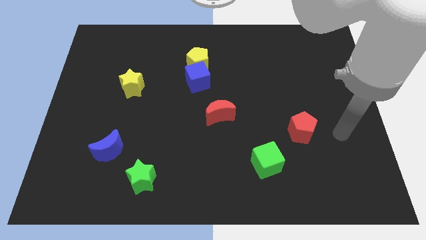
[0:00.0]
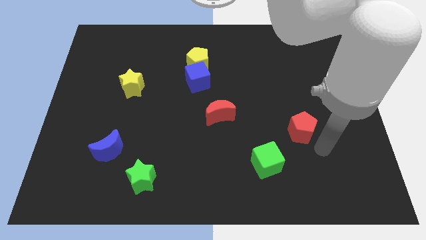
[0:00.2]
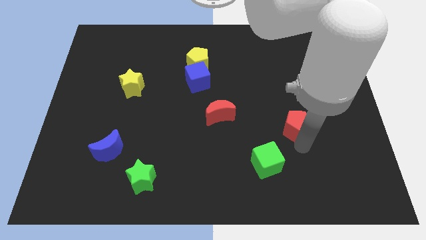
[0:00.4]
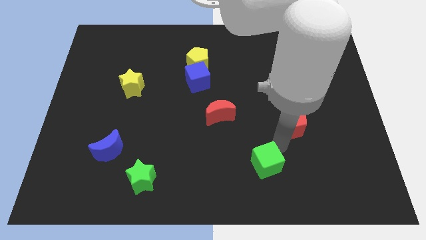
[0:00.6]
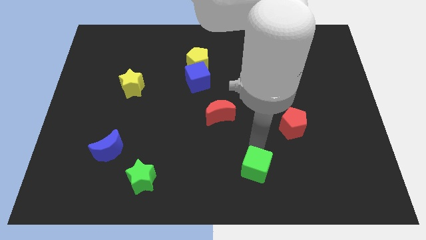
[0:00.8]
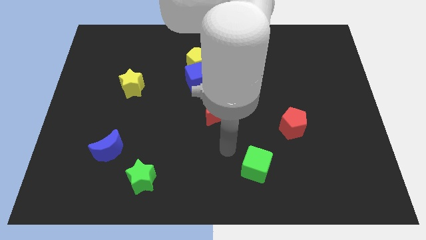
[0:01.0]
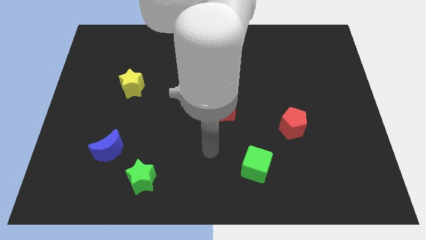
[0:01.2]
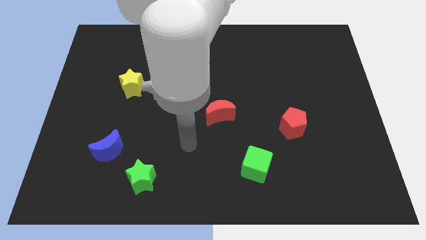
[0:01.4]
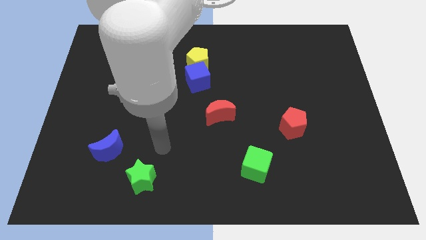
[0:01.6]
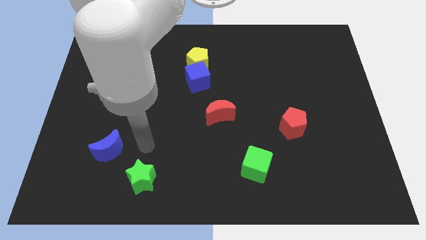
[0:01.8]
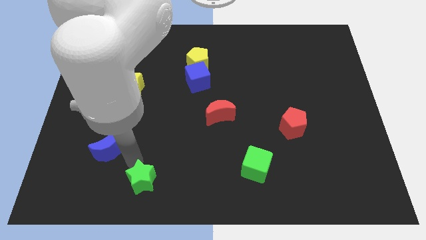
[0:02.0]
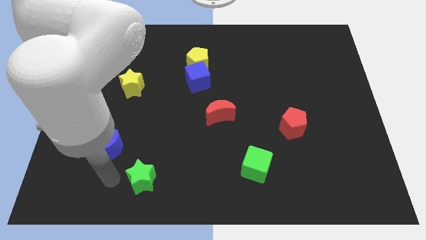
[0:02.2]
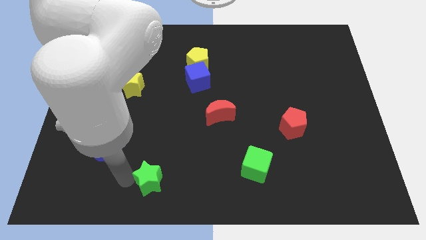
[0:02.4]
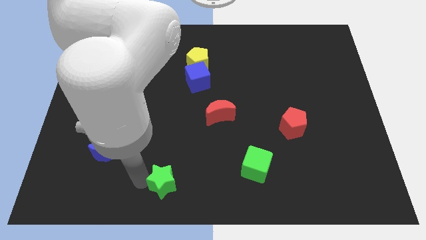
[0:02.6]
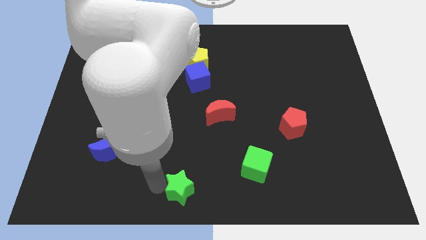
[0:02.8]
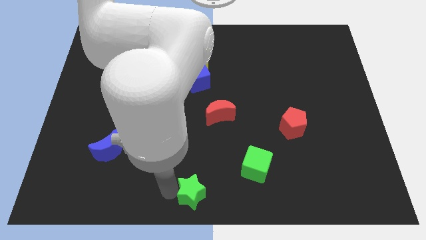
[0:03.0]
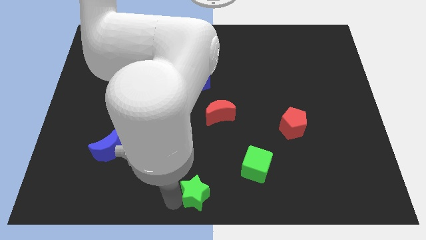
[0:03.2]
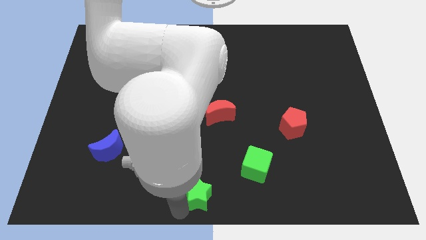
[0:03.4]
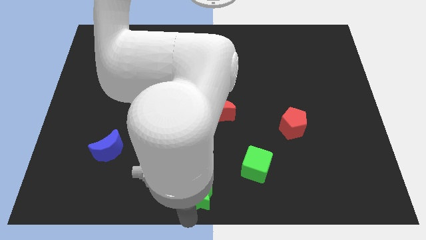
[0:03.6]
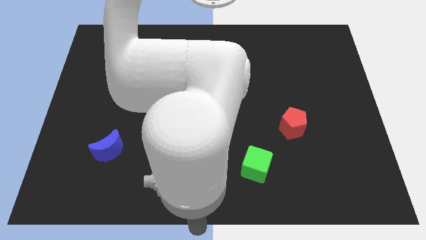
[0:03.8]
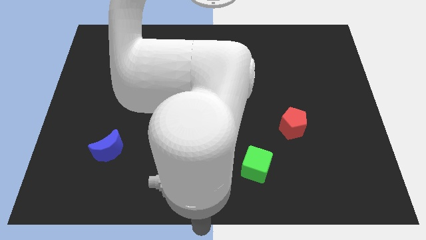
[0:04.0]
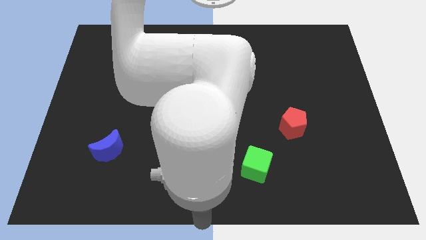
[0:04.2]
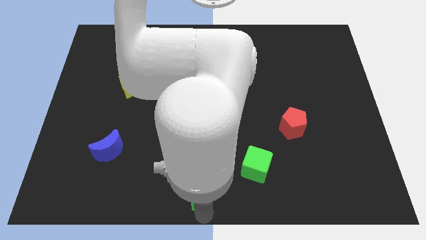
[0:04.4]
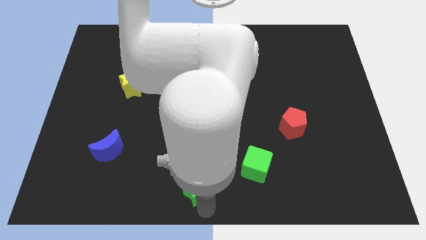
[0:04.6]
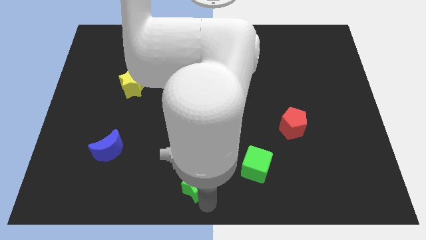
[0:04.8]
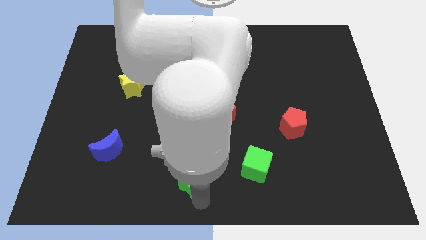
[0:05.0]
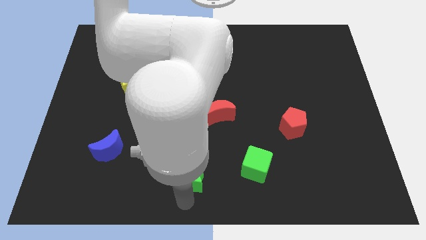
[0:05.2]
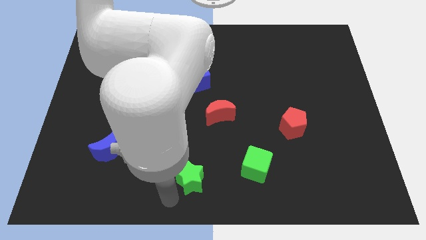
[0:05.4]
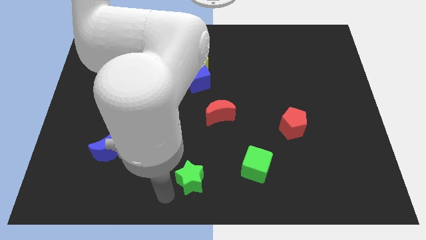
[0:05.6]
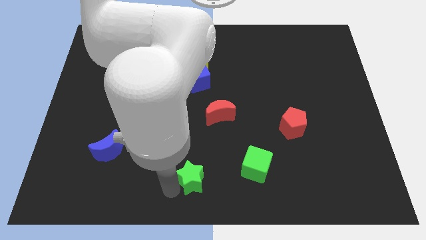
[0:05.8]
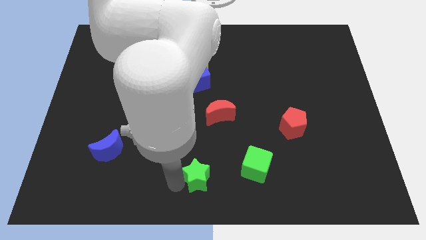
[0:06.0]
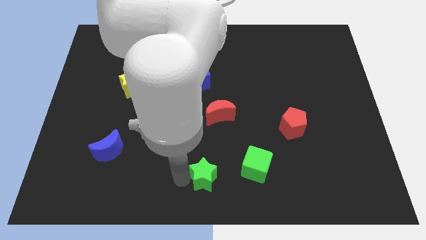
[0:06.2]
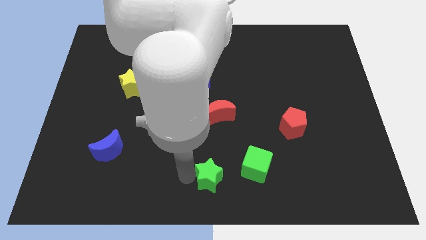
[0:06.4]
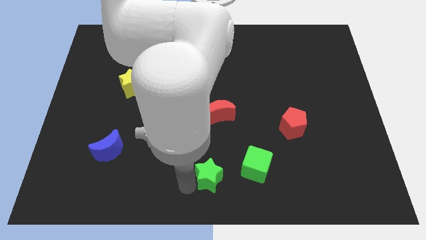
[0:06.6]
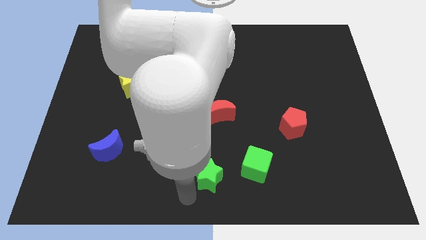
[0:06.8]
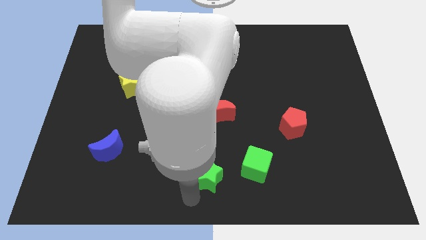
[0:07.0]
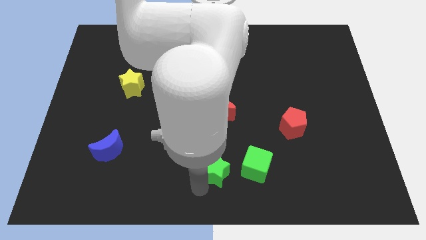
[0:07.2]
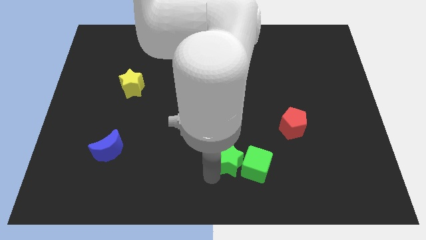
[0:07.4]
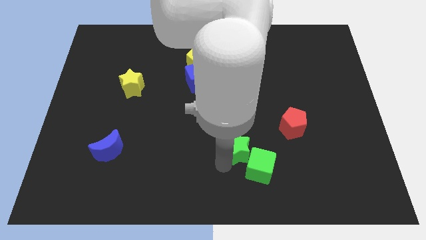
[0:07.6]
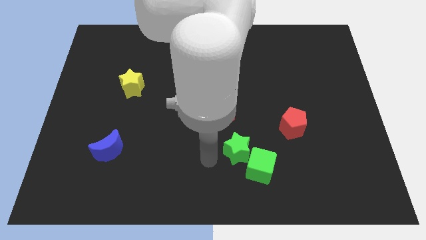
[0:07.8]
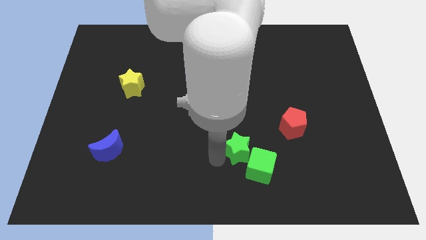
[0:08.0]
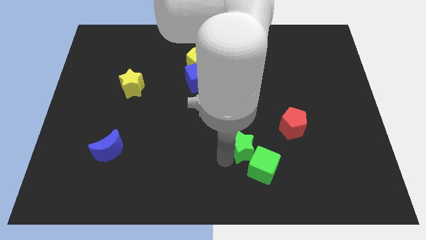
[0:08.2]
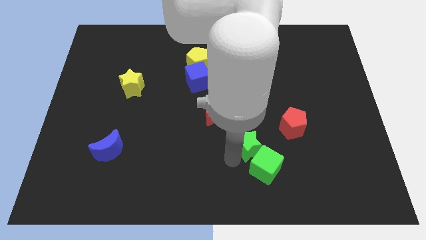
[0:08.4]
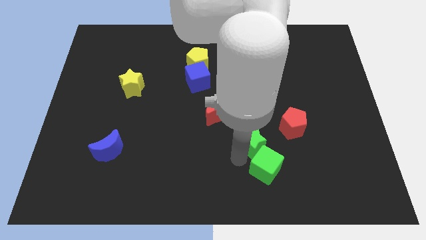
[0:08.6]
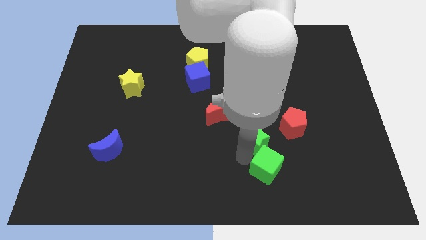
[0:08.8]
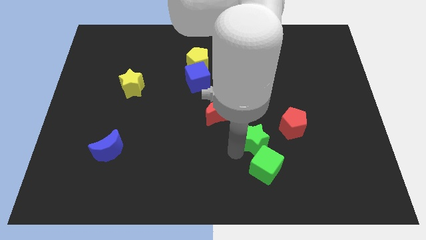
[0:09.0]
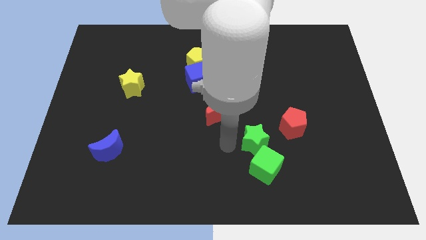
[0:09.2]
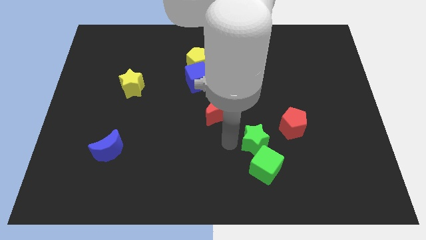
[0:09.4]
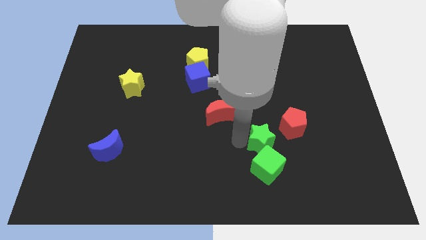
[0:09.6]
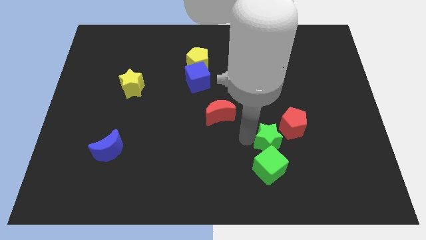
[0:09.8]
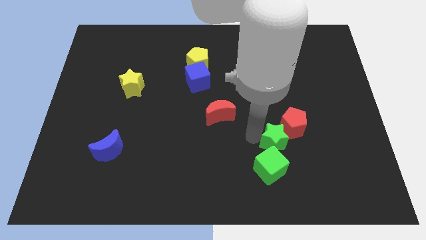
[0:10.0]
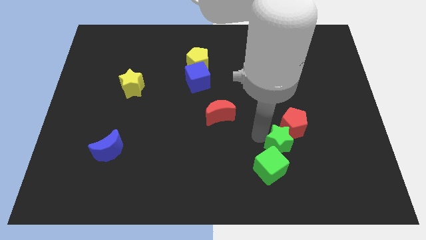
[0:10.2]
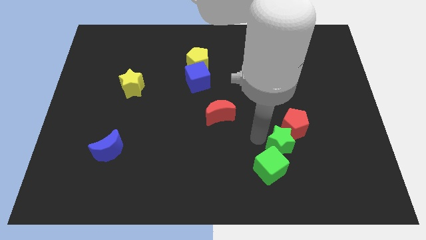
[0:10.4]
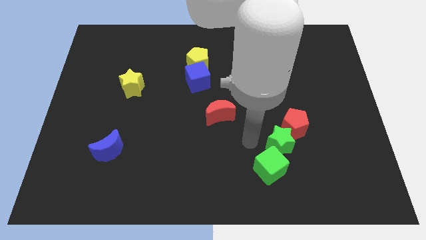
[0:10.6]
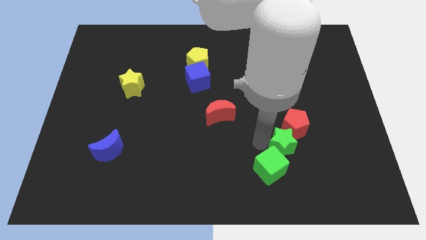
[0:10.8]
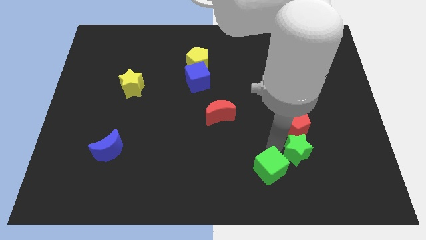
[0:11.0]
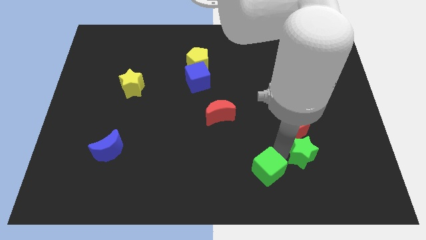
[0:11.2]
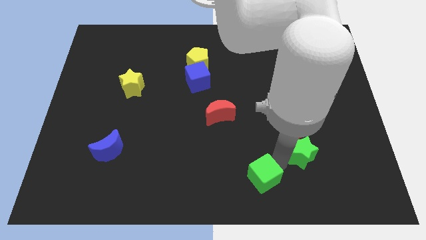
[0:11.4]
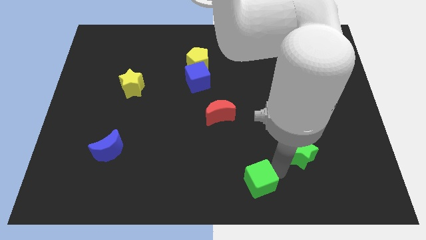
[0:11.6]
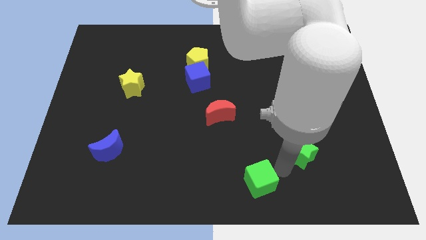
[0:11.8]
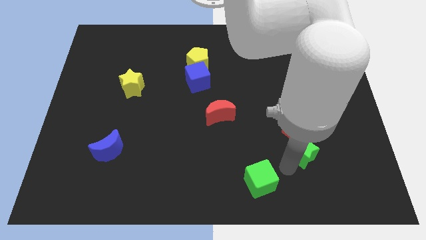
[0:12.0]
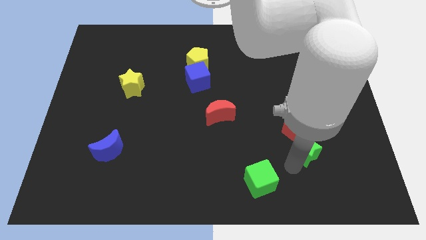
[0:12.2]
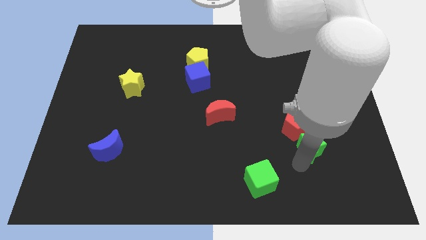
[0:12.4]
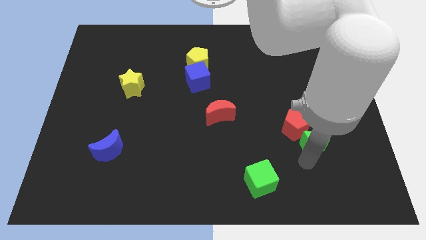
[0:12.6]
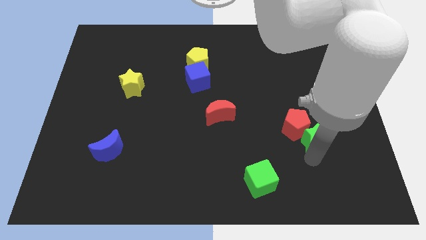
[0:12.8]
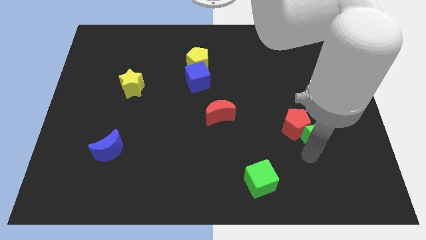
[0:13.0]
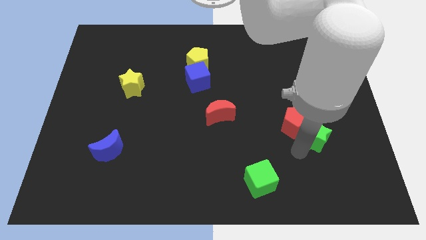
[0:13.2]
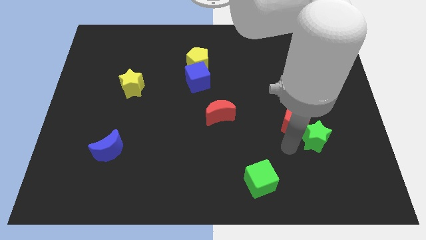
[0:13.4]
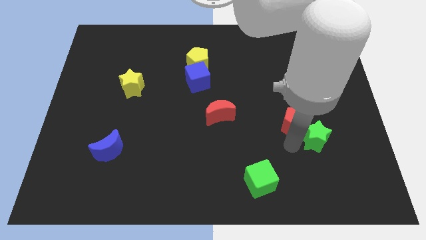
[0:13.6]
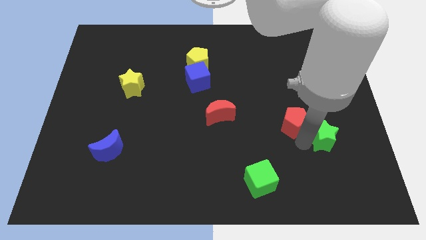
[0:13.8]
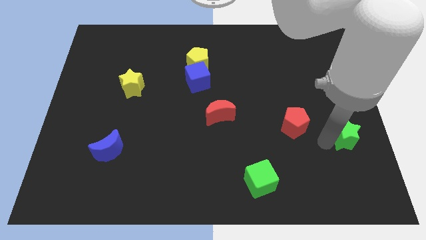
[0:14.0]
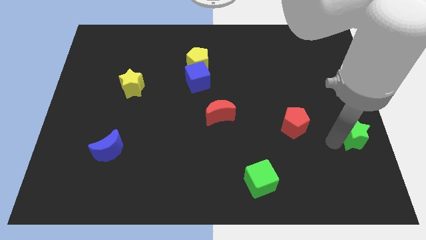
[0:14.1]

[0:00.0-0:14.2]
slide the green star to the right side
